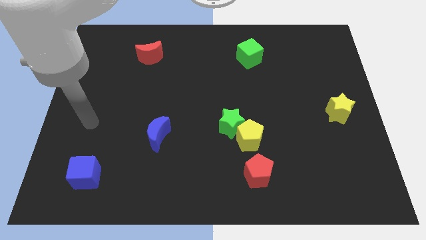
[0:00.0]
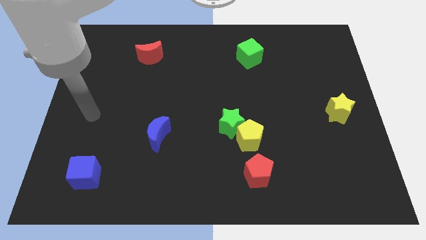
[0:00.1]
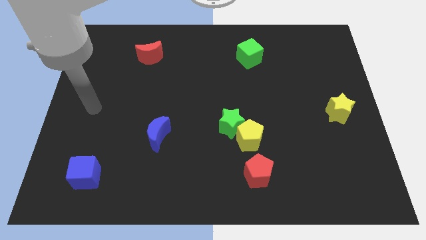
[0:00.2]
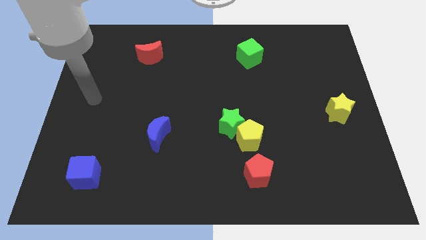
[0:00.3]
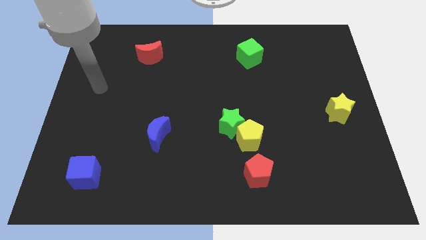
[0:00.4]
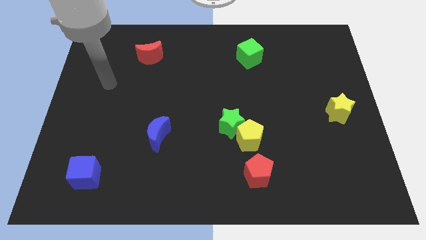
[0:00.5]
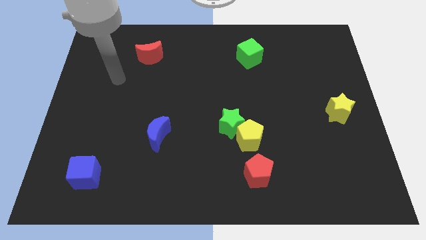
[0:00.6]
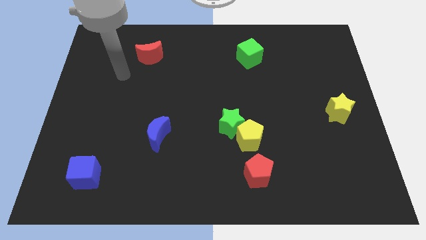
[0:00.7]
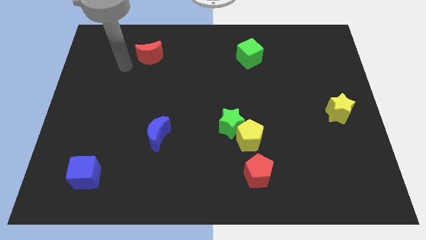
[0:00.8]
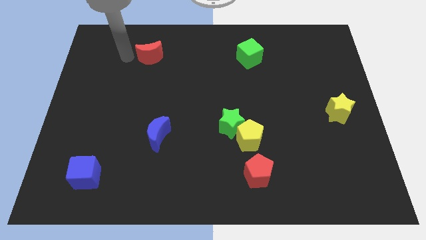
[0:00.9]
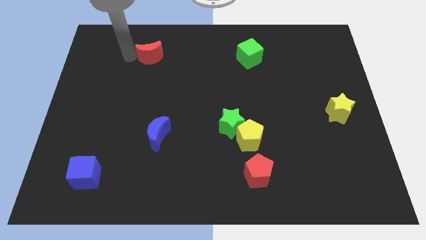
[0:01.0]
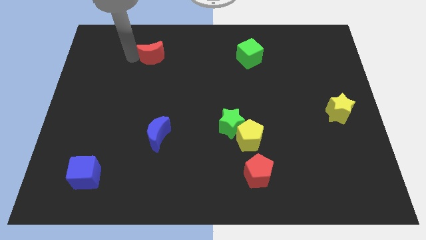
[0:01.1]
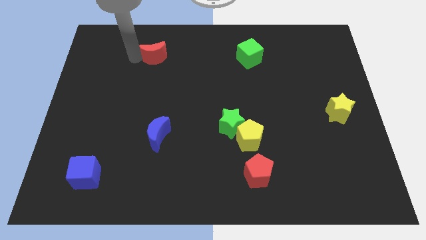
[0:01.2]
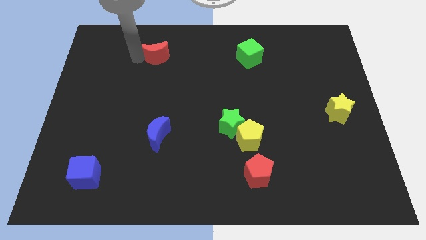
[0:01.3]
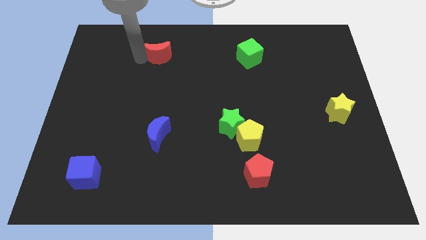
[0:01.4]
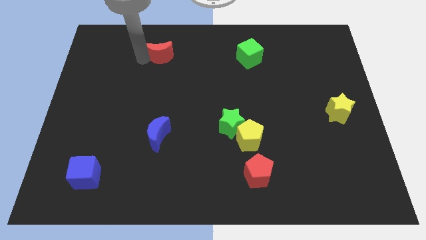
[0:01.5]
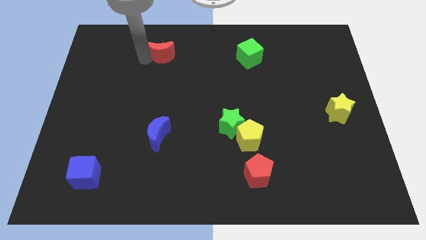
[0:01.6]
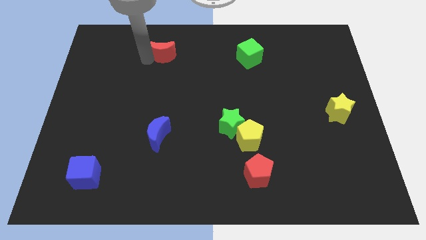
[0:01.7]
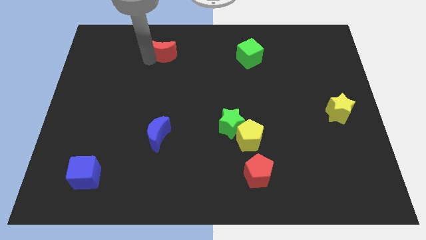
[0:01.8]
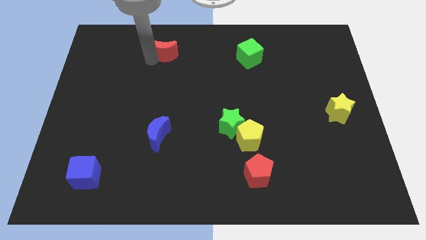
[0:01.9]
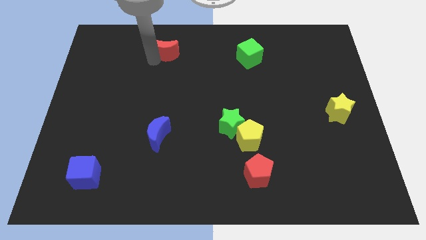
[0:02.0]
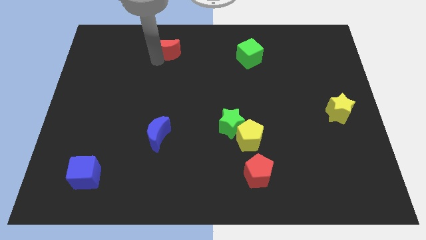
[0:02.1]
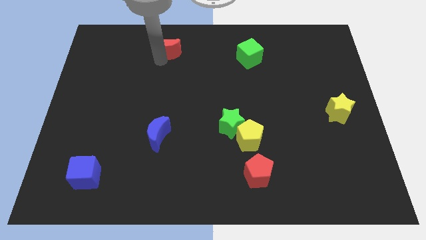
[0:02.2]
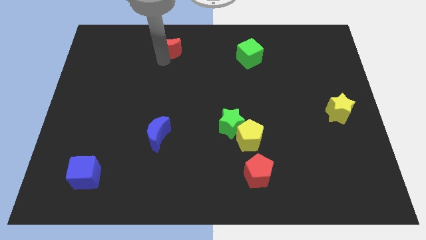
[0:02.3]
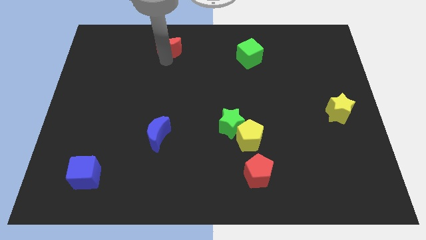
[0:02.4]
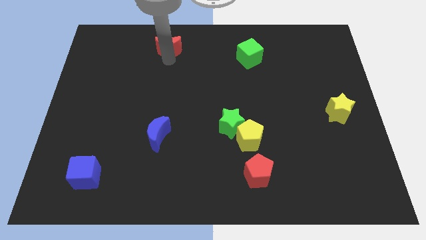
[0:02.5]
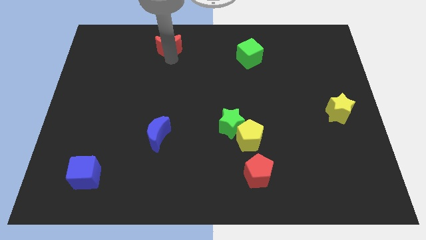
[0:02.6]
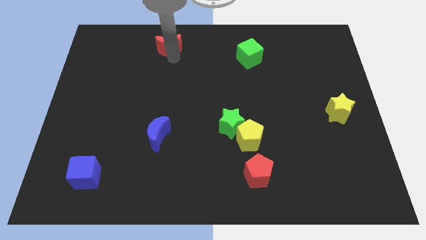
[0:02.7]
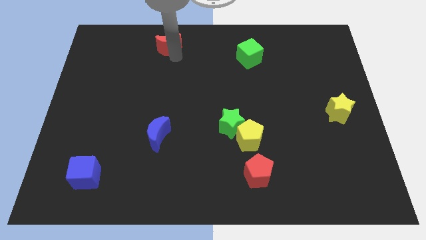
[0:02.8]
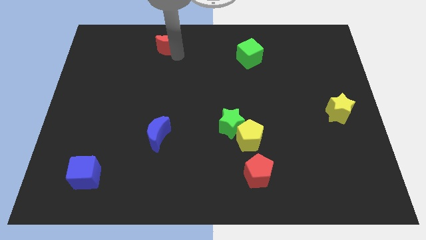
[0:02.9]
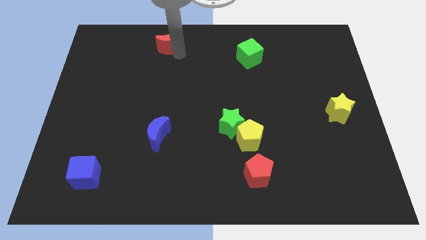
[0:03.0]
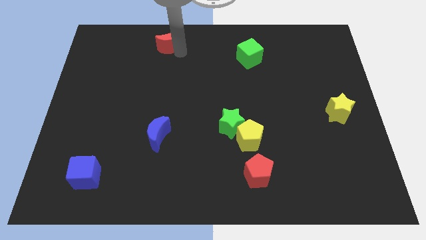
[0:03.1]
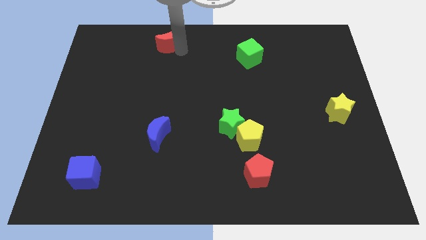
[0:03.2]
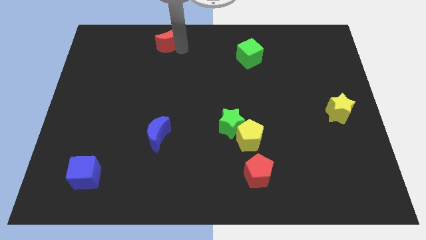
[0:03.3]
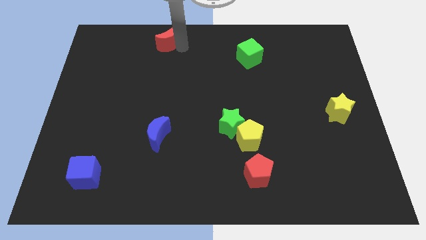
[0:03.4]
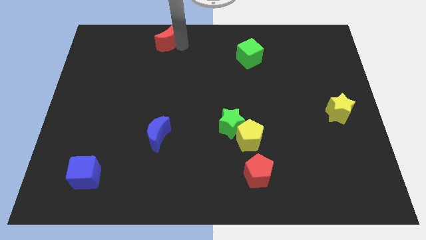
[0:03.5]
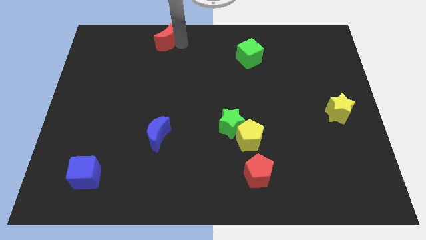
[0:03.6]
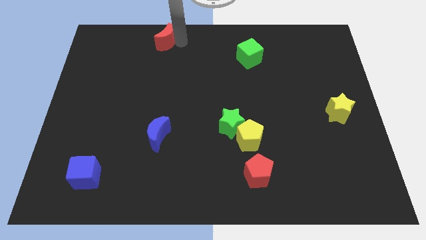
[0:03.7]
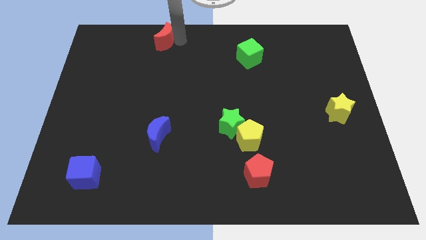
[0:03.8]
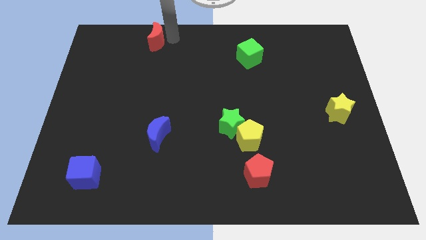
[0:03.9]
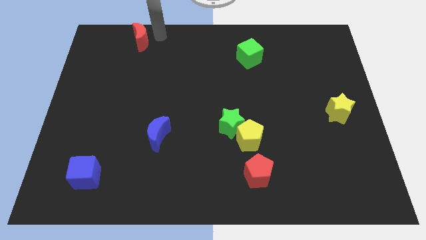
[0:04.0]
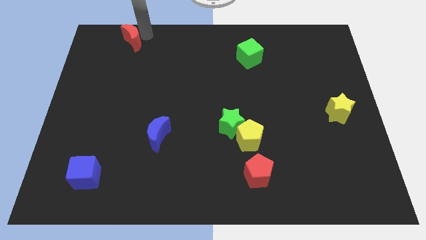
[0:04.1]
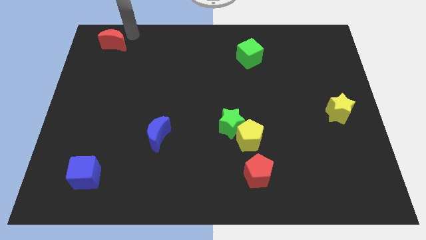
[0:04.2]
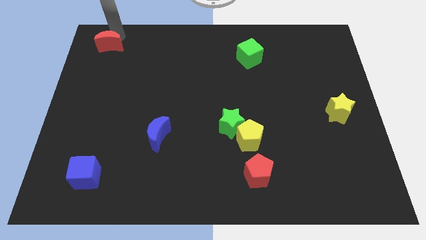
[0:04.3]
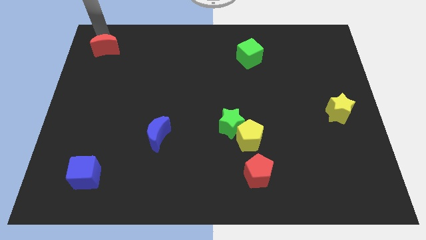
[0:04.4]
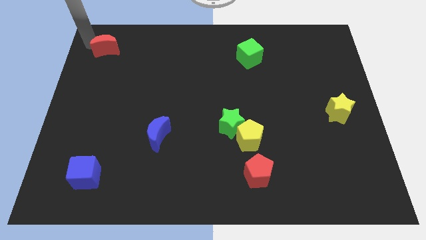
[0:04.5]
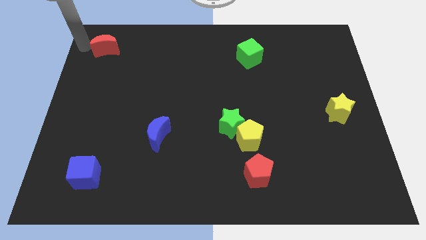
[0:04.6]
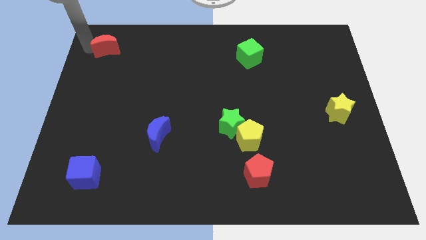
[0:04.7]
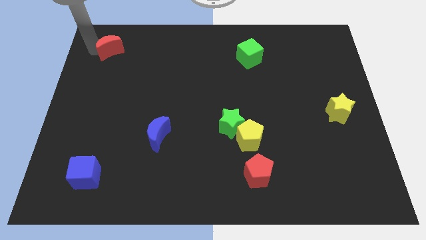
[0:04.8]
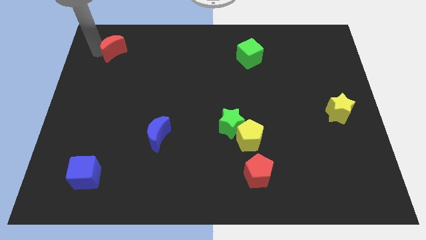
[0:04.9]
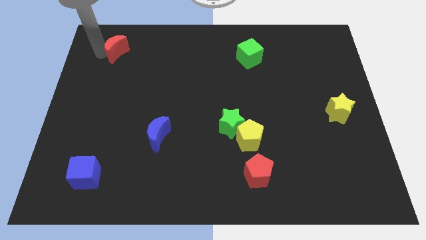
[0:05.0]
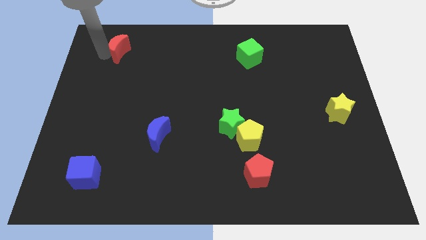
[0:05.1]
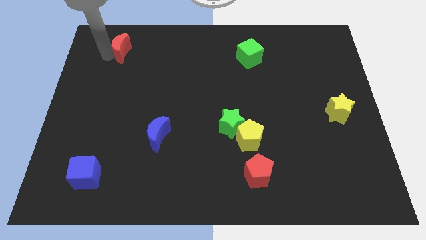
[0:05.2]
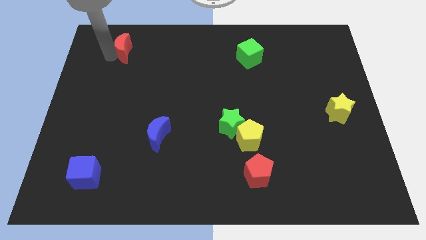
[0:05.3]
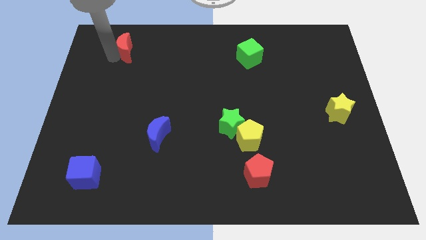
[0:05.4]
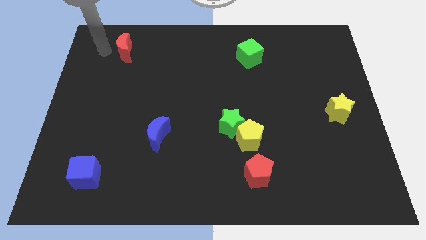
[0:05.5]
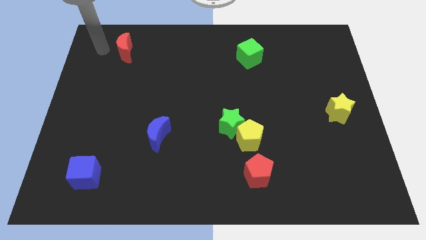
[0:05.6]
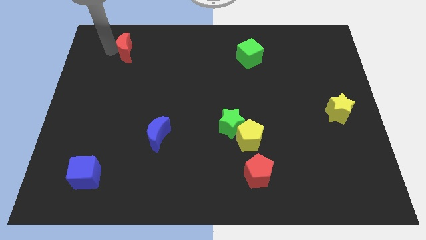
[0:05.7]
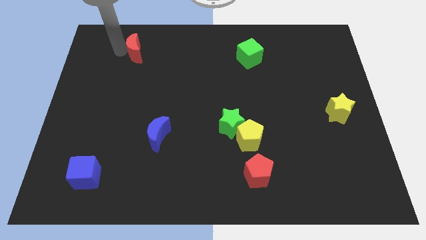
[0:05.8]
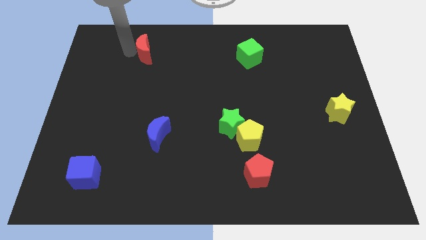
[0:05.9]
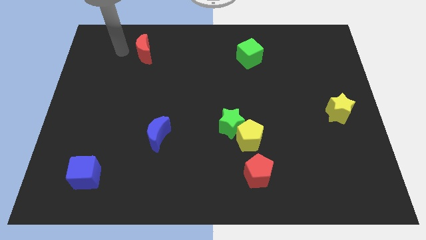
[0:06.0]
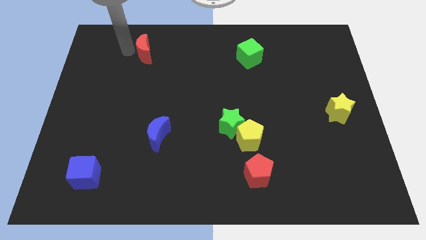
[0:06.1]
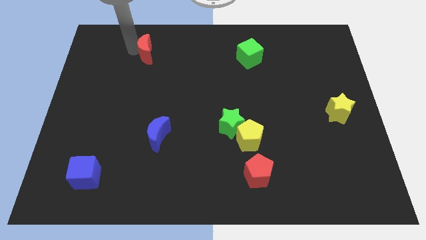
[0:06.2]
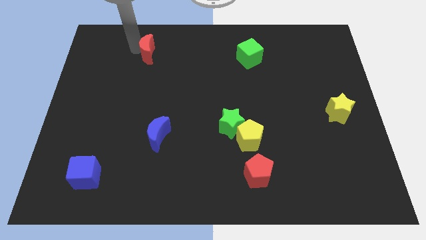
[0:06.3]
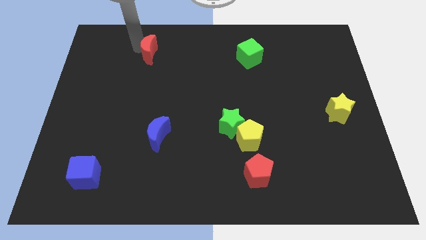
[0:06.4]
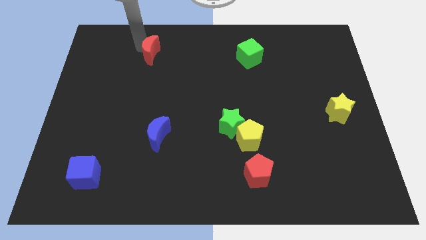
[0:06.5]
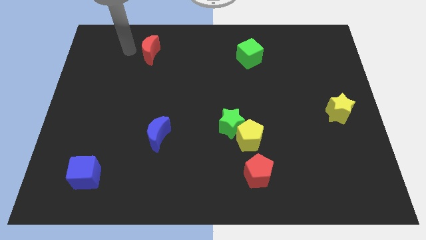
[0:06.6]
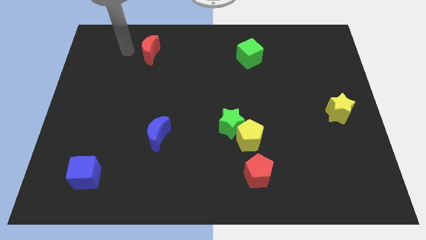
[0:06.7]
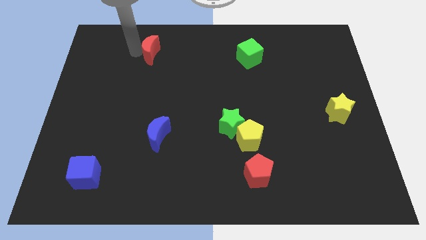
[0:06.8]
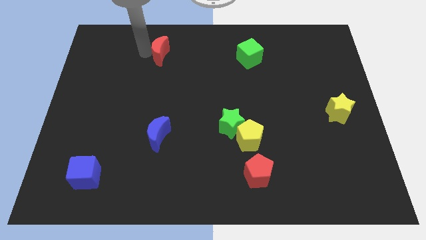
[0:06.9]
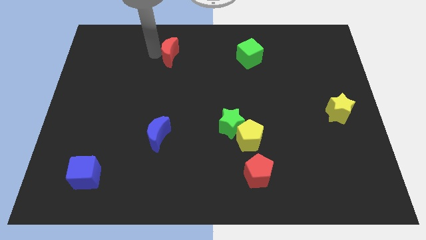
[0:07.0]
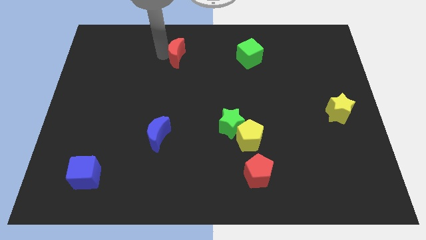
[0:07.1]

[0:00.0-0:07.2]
slightly move the red moon to the right

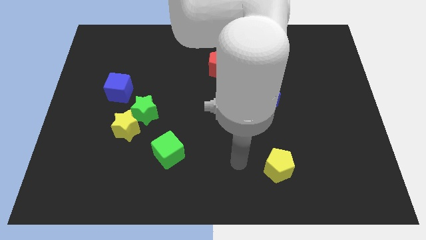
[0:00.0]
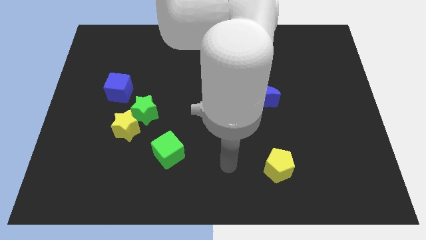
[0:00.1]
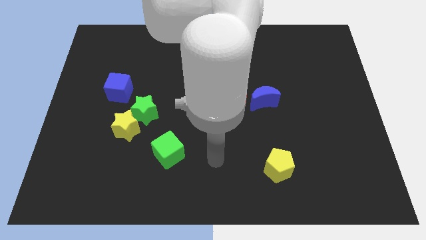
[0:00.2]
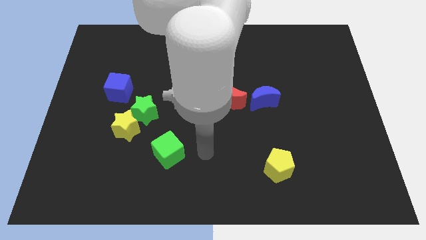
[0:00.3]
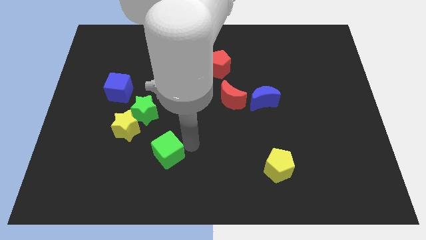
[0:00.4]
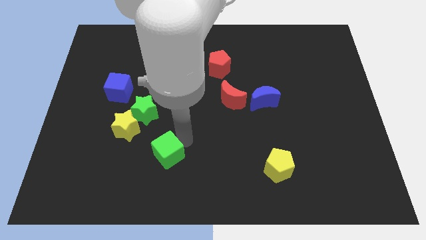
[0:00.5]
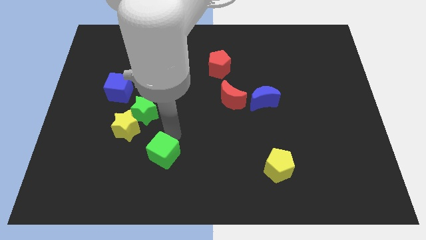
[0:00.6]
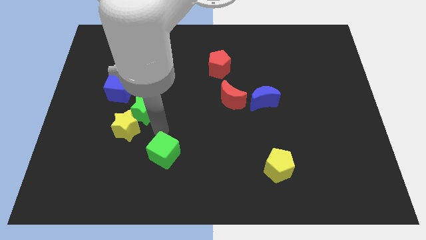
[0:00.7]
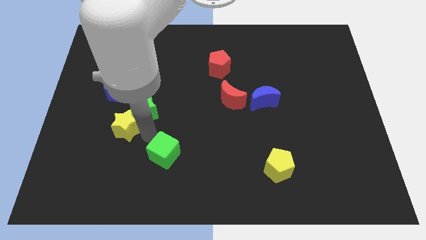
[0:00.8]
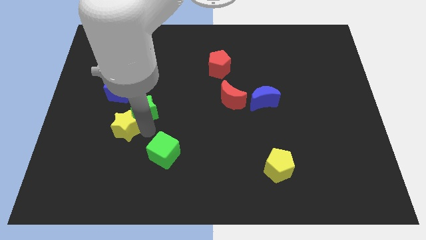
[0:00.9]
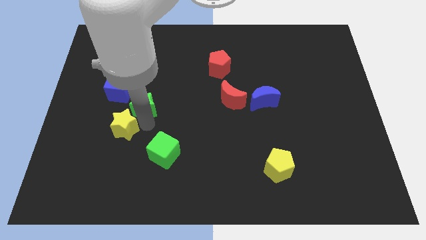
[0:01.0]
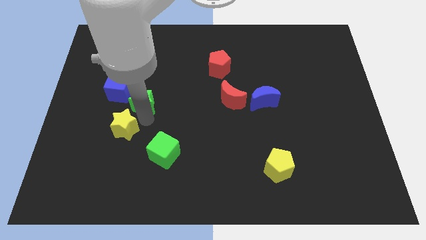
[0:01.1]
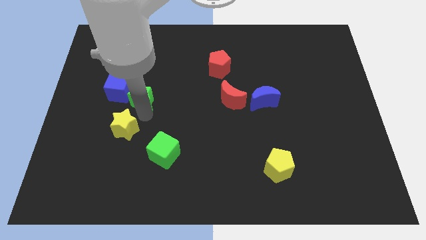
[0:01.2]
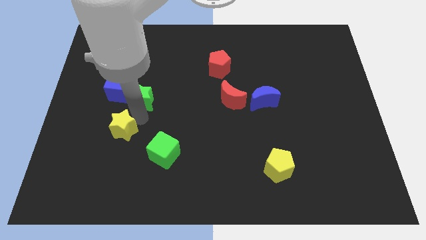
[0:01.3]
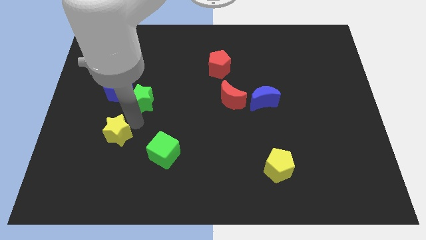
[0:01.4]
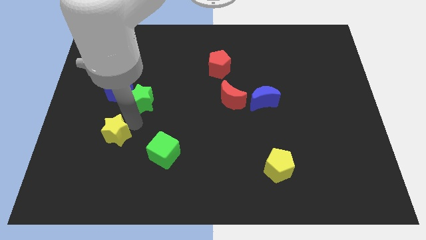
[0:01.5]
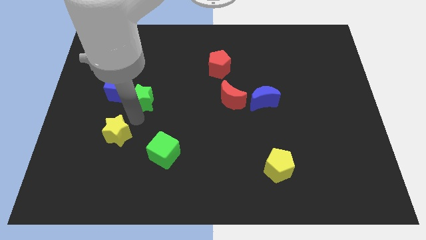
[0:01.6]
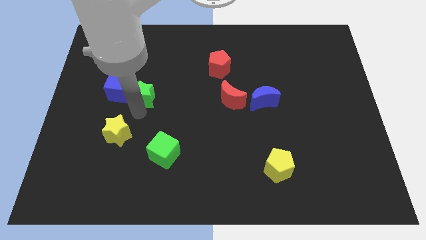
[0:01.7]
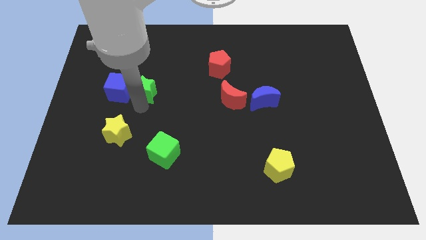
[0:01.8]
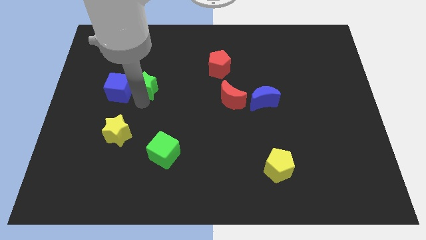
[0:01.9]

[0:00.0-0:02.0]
push the green star slightly upwards
